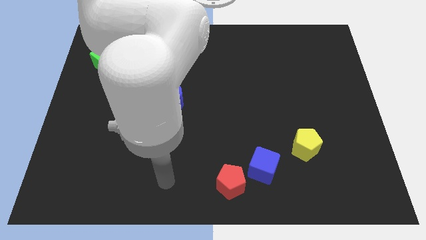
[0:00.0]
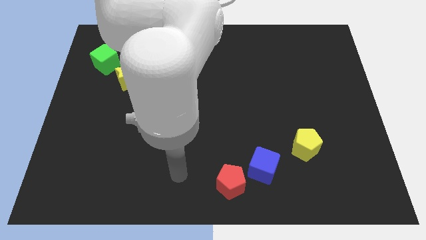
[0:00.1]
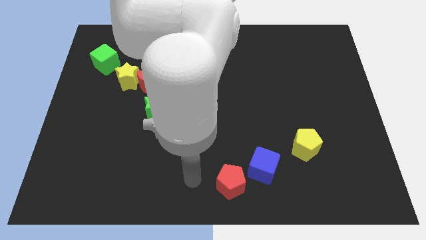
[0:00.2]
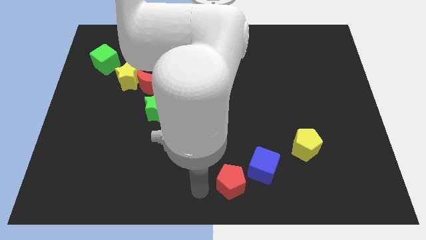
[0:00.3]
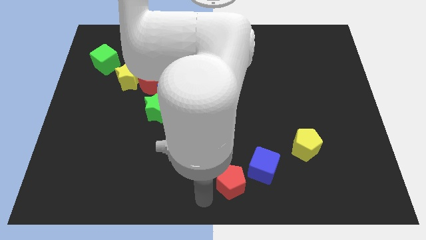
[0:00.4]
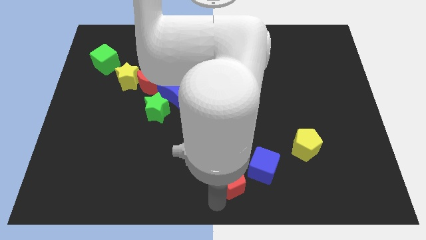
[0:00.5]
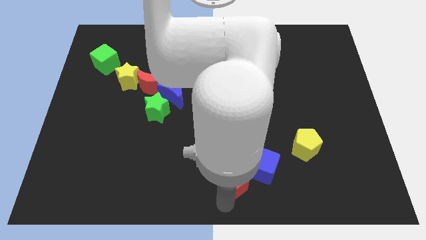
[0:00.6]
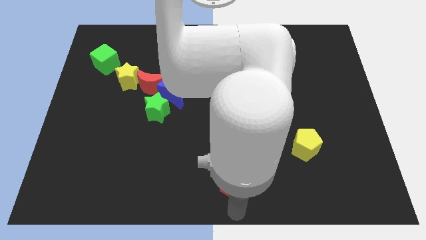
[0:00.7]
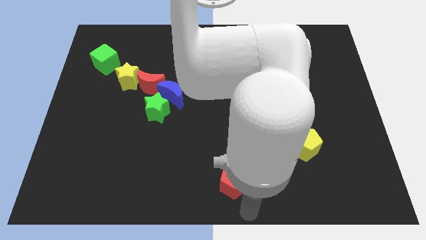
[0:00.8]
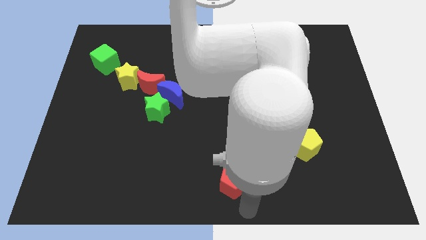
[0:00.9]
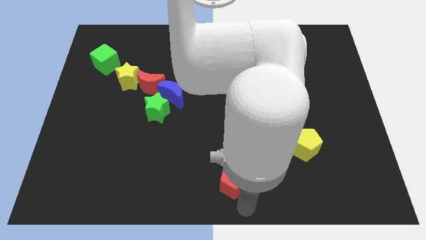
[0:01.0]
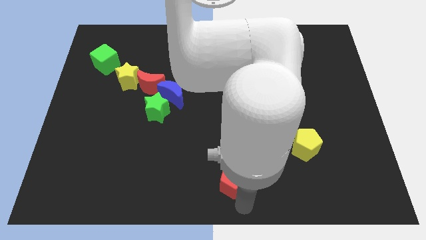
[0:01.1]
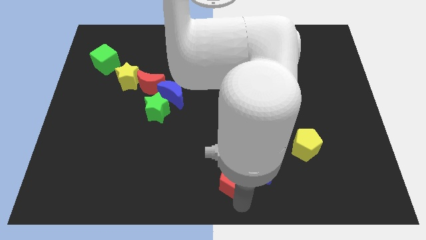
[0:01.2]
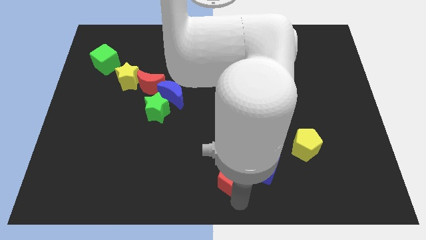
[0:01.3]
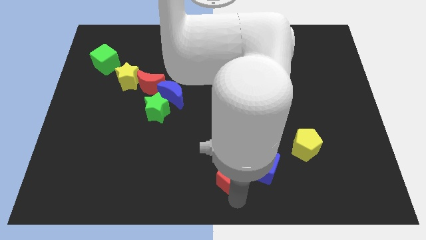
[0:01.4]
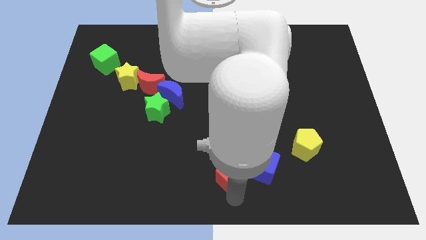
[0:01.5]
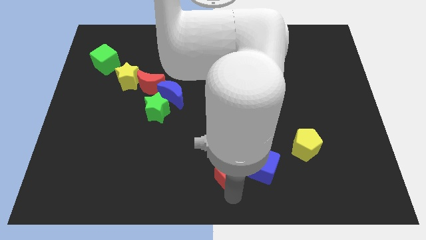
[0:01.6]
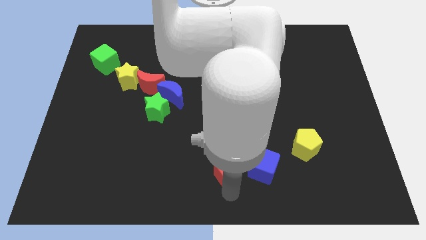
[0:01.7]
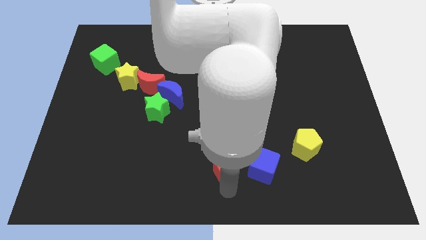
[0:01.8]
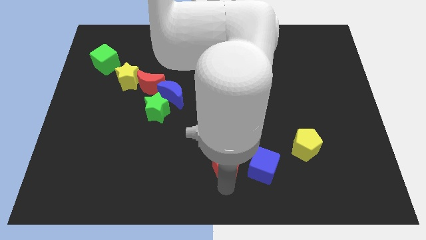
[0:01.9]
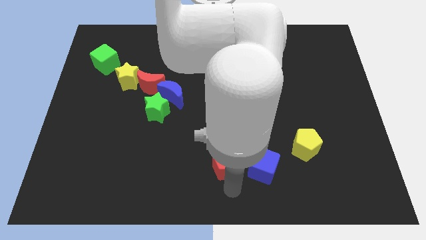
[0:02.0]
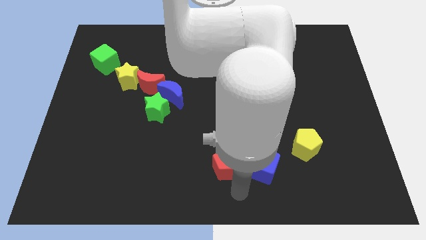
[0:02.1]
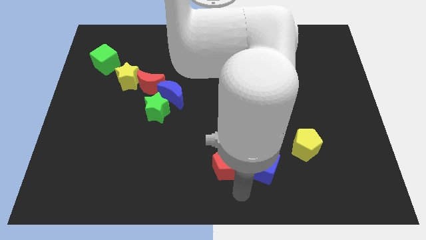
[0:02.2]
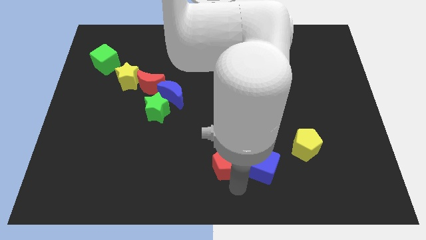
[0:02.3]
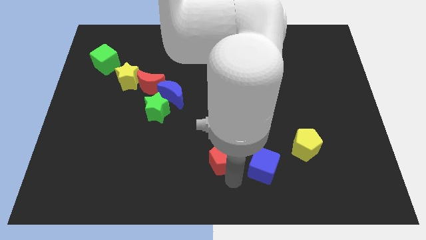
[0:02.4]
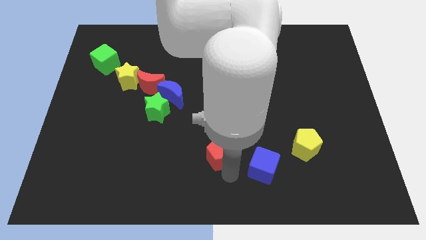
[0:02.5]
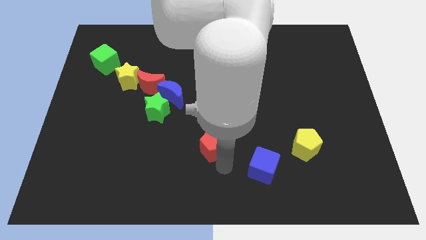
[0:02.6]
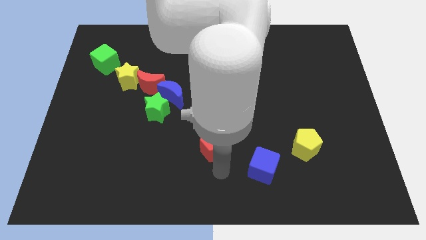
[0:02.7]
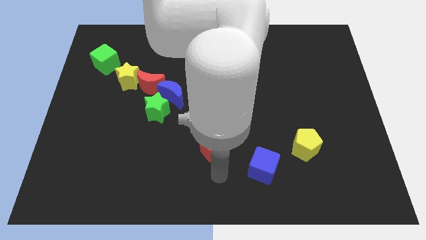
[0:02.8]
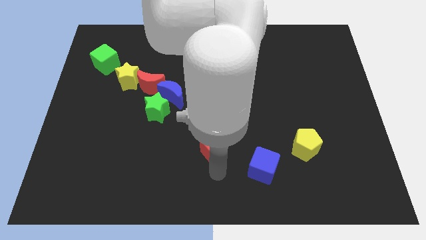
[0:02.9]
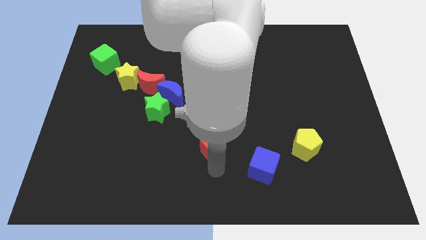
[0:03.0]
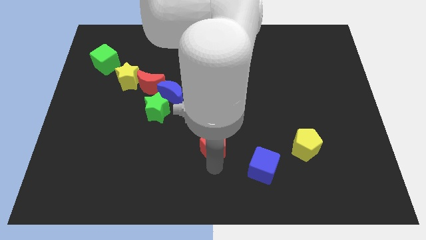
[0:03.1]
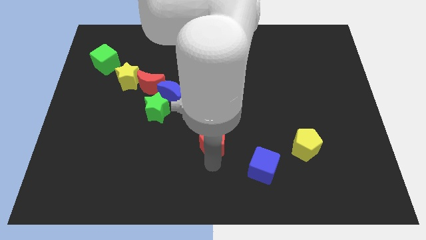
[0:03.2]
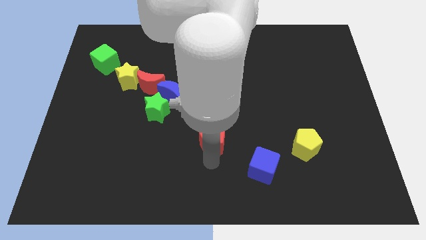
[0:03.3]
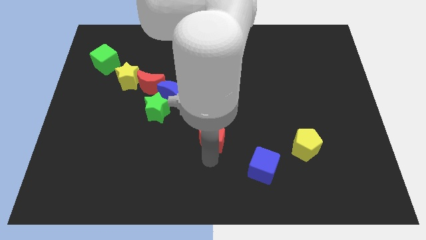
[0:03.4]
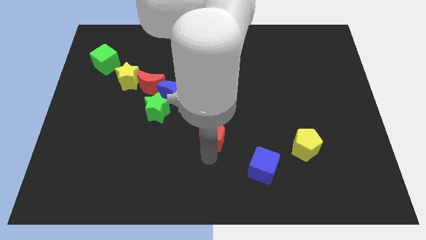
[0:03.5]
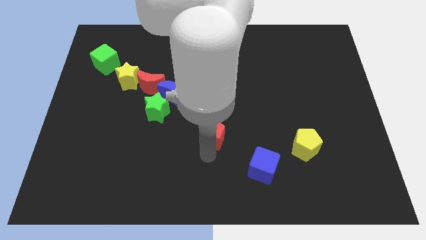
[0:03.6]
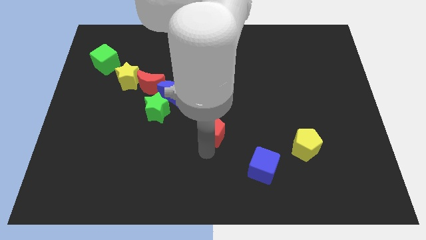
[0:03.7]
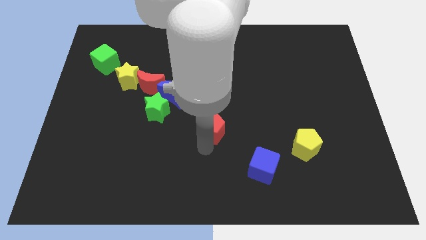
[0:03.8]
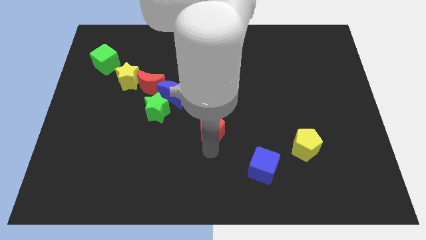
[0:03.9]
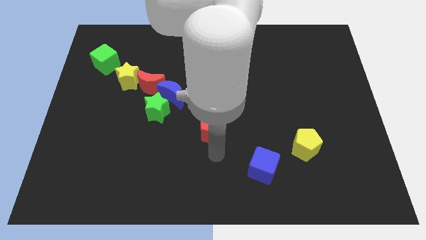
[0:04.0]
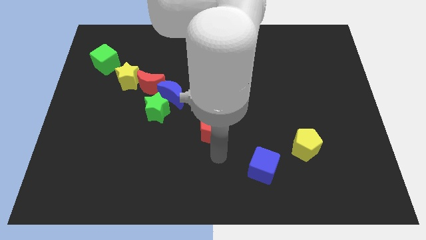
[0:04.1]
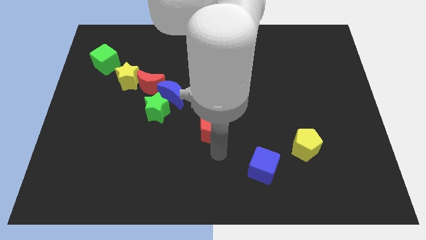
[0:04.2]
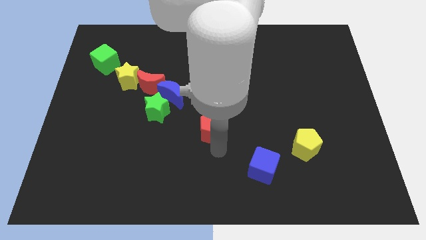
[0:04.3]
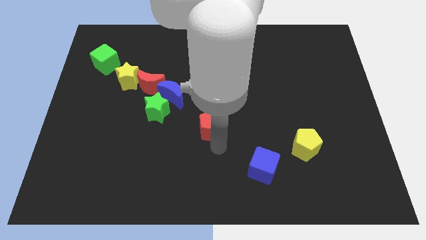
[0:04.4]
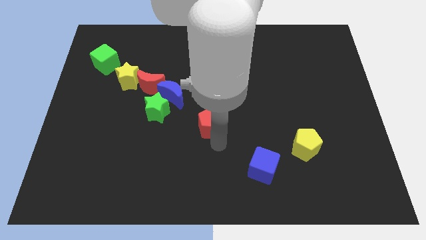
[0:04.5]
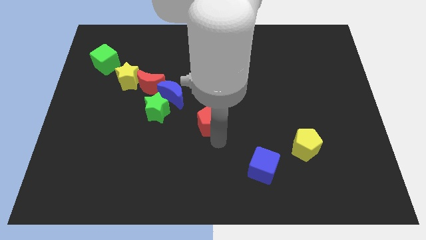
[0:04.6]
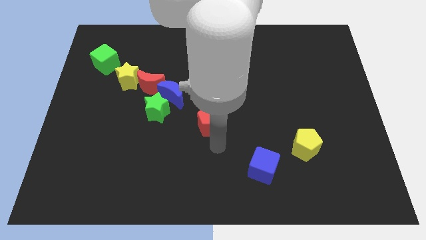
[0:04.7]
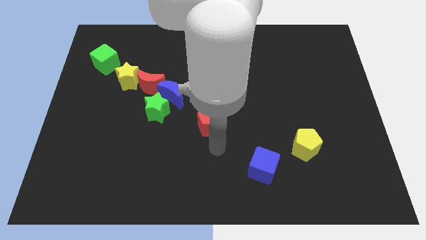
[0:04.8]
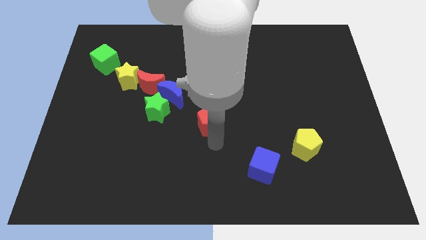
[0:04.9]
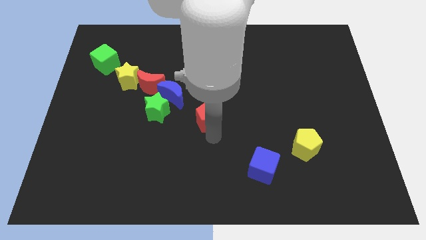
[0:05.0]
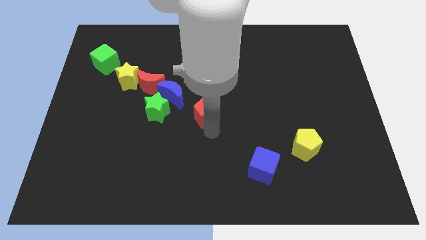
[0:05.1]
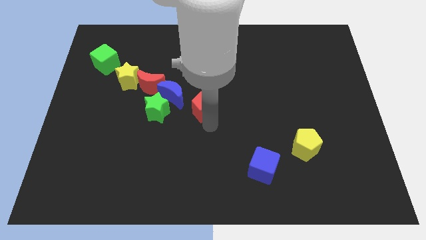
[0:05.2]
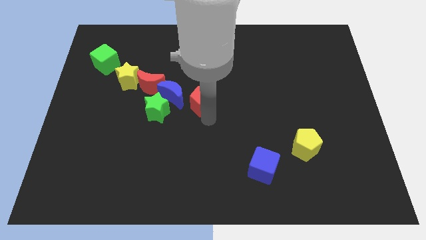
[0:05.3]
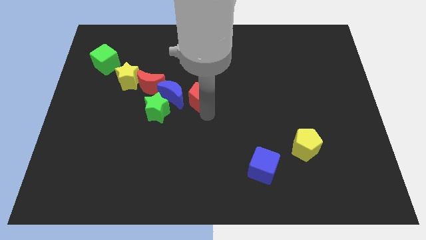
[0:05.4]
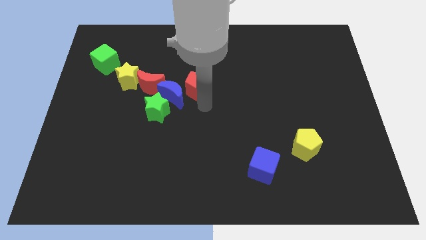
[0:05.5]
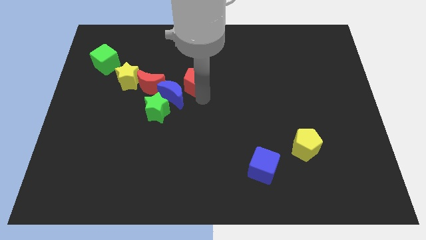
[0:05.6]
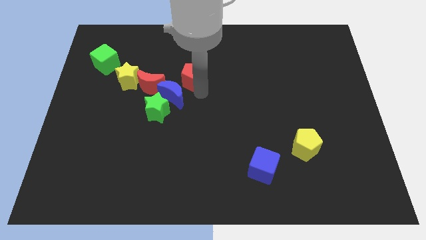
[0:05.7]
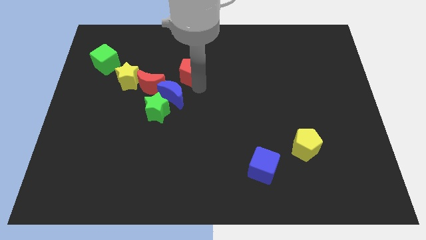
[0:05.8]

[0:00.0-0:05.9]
slide the red pentagon diagonally up and to the right of the red moon

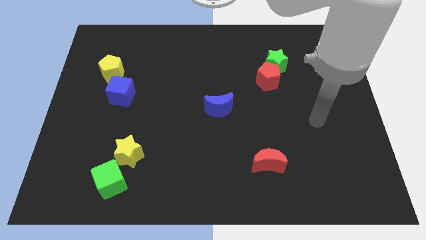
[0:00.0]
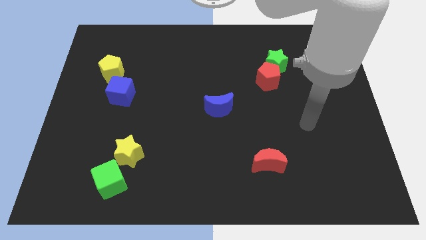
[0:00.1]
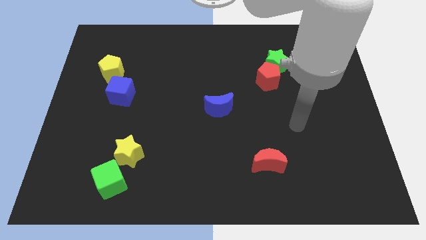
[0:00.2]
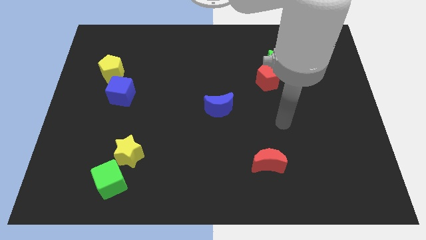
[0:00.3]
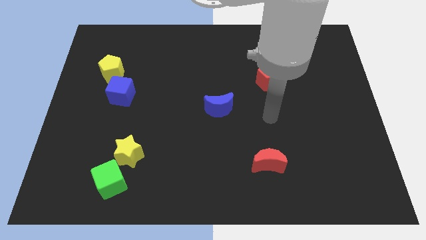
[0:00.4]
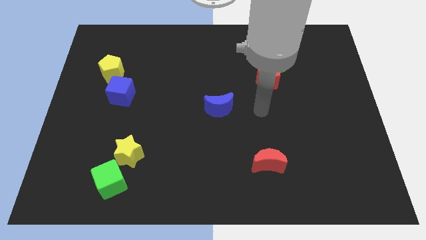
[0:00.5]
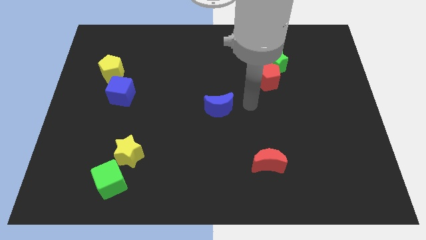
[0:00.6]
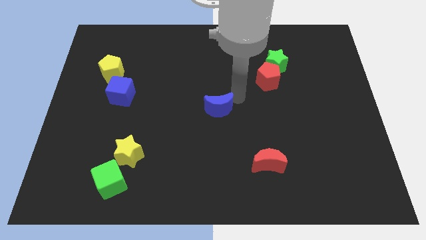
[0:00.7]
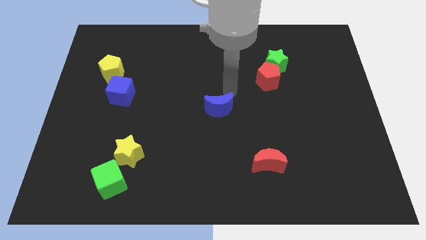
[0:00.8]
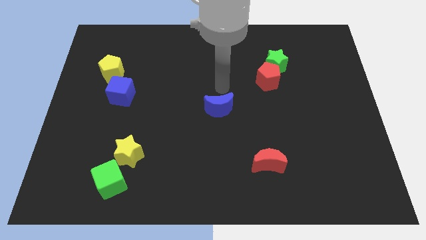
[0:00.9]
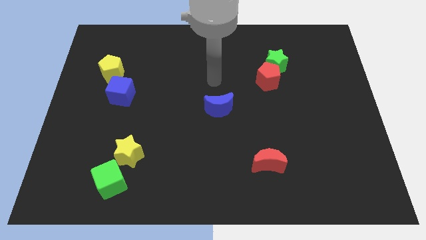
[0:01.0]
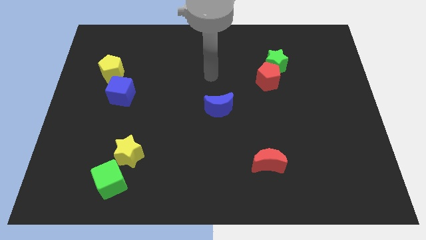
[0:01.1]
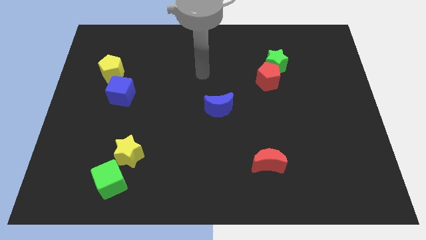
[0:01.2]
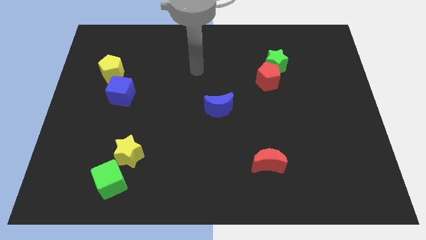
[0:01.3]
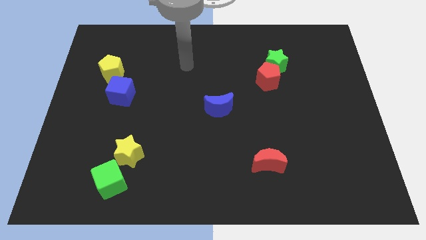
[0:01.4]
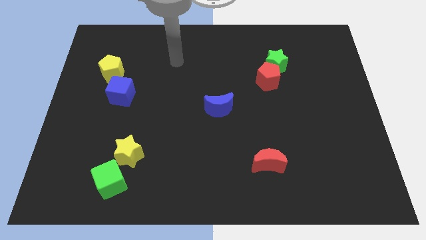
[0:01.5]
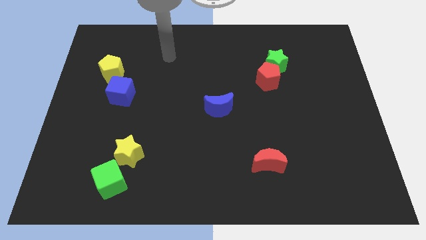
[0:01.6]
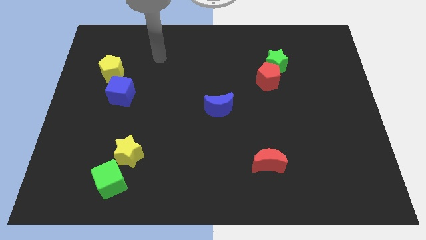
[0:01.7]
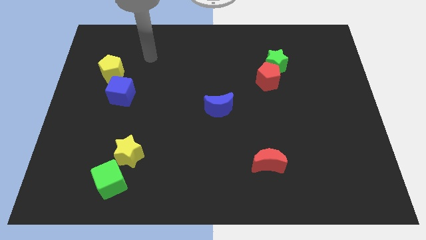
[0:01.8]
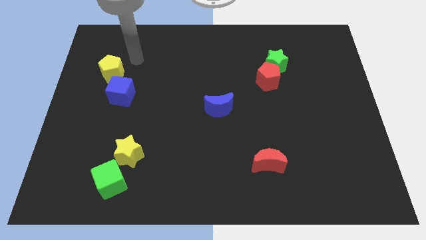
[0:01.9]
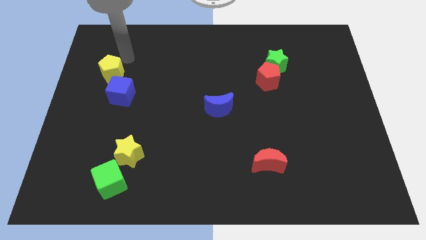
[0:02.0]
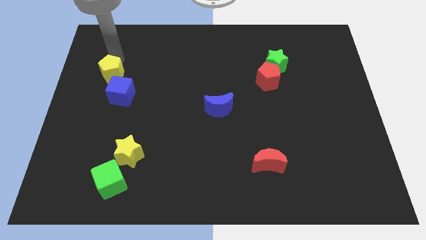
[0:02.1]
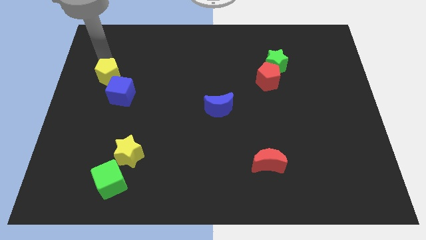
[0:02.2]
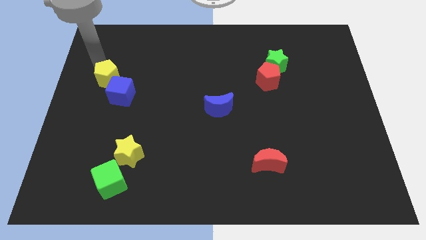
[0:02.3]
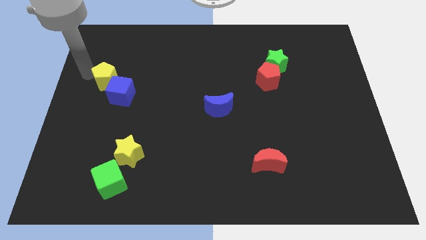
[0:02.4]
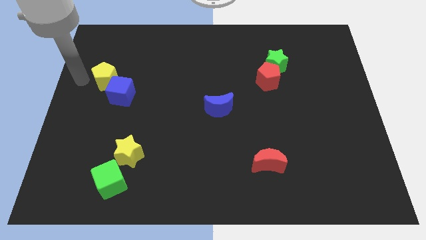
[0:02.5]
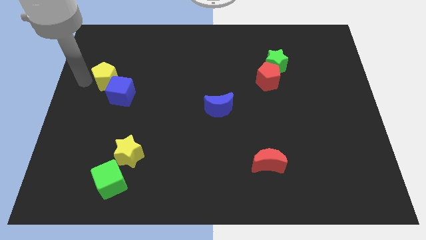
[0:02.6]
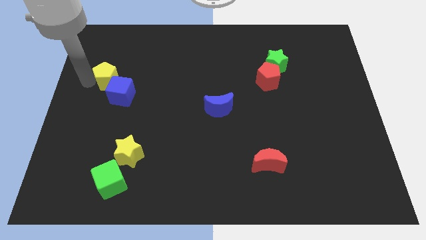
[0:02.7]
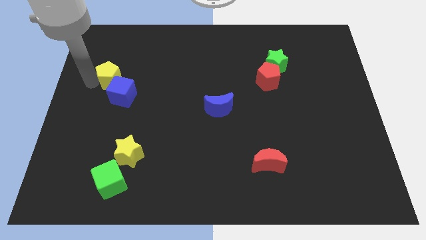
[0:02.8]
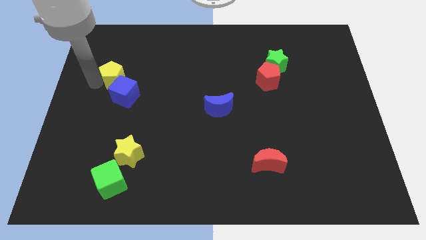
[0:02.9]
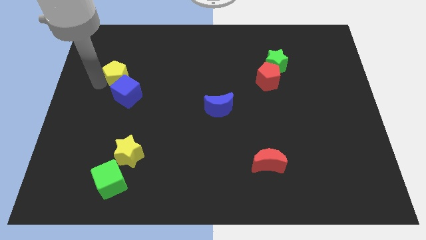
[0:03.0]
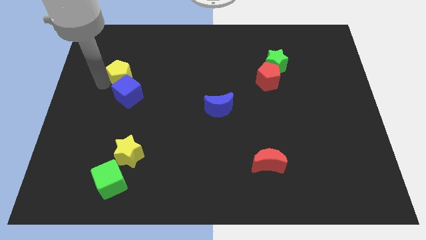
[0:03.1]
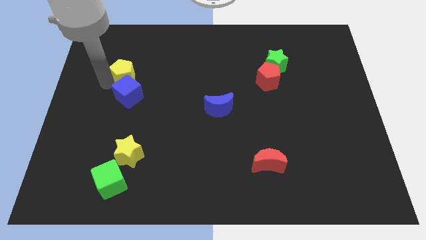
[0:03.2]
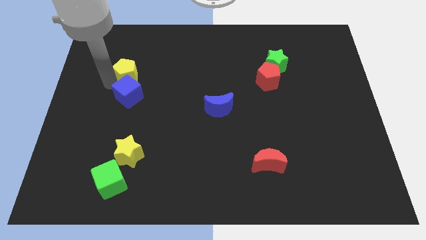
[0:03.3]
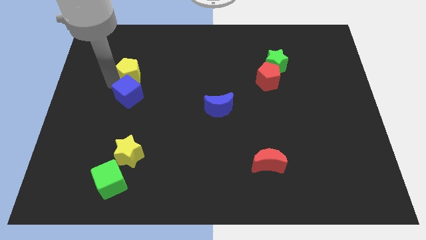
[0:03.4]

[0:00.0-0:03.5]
put the yellow pentagon to the top right side of the blue cube
